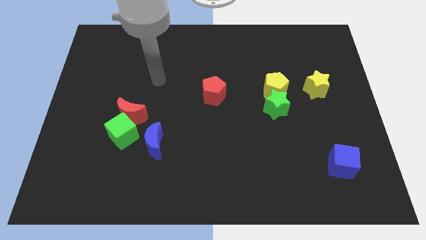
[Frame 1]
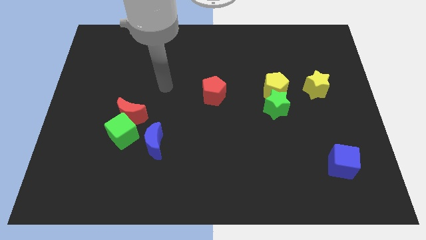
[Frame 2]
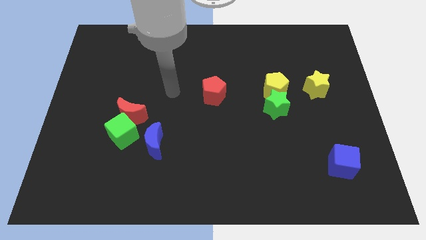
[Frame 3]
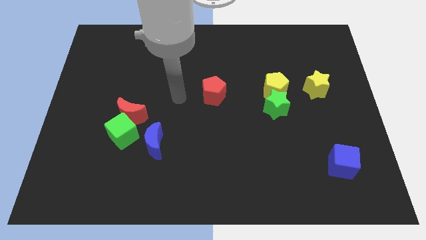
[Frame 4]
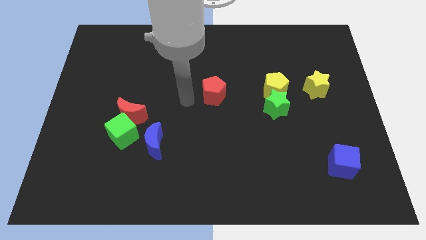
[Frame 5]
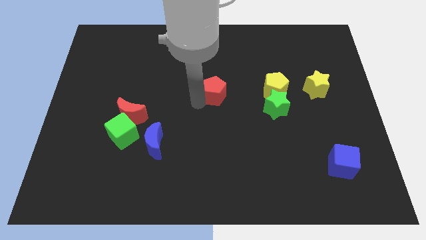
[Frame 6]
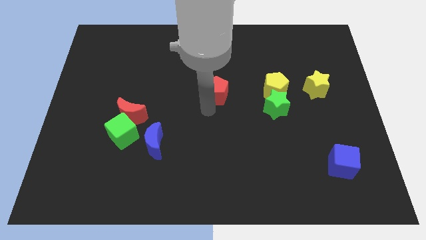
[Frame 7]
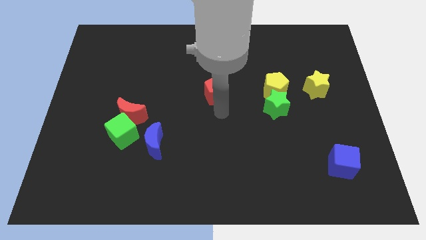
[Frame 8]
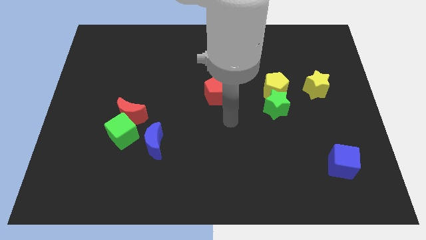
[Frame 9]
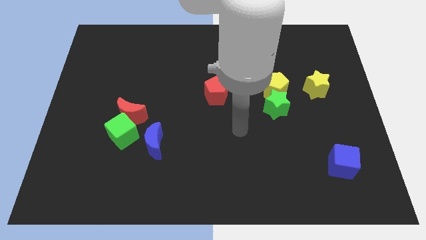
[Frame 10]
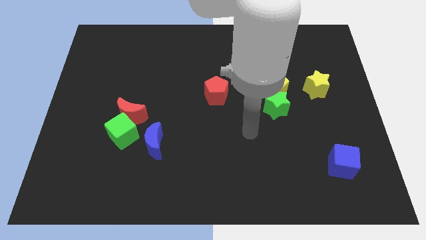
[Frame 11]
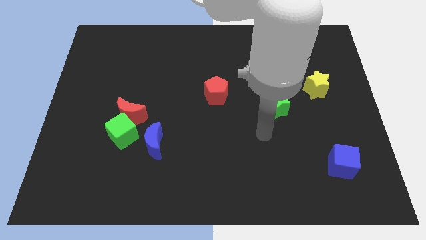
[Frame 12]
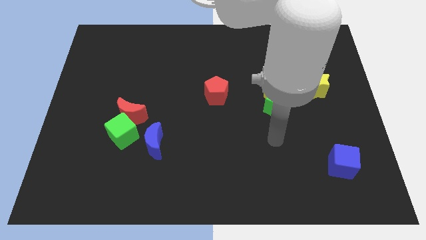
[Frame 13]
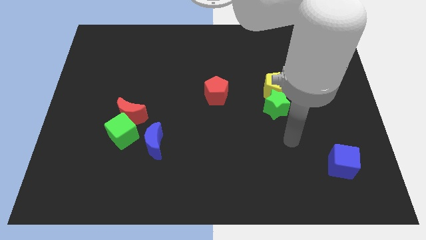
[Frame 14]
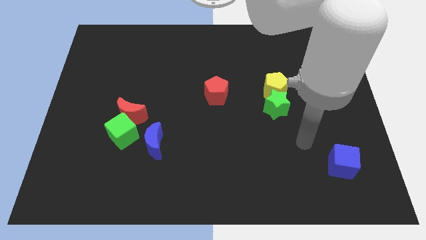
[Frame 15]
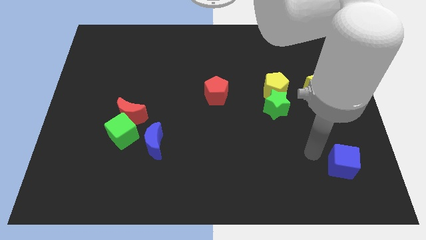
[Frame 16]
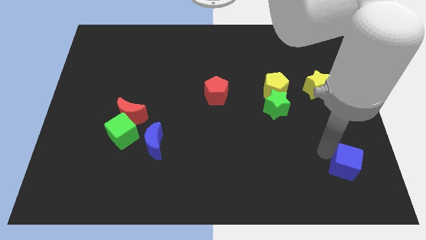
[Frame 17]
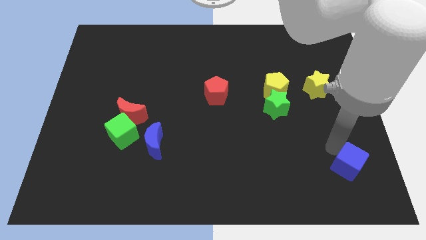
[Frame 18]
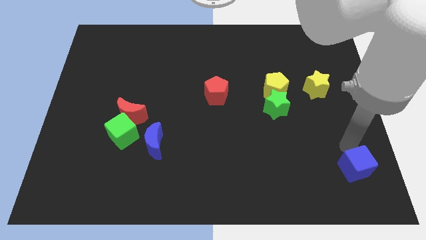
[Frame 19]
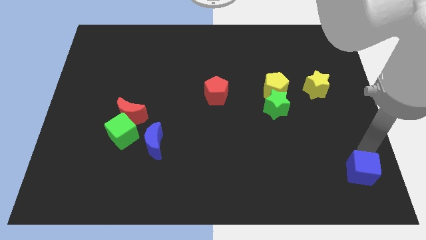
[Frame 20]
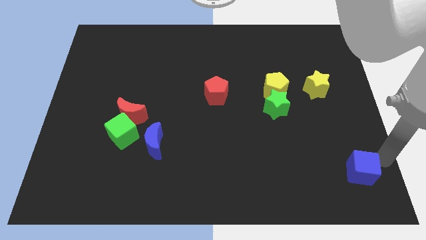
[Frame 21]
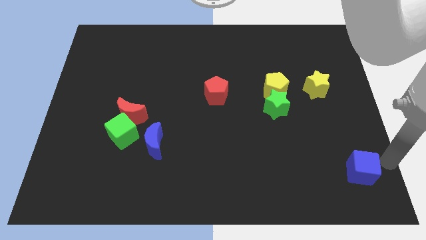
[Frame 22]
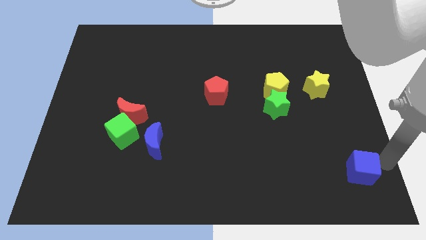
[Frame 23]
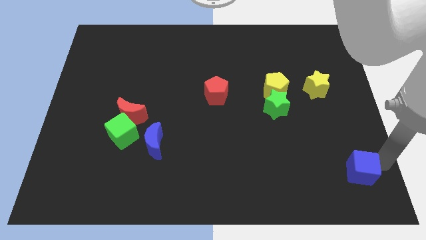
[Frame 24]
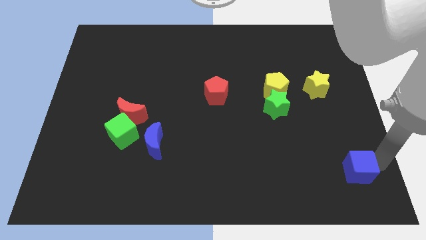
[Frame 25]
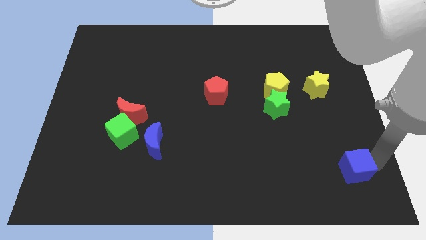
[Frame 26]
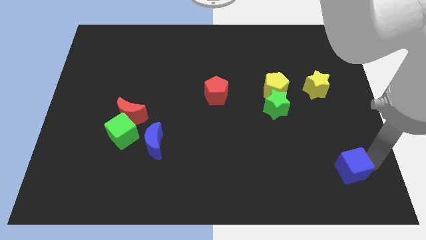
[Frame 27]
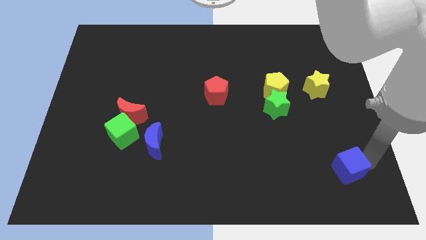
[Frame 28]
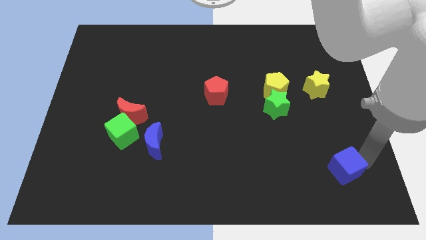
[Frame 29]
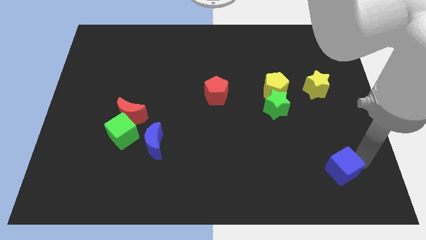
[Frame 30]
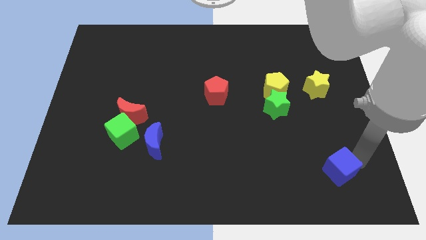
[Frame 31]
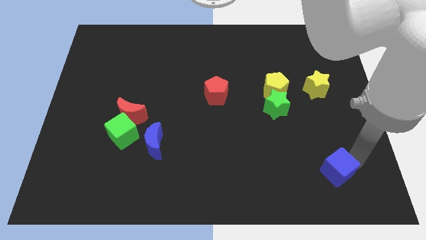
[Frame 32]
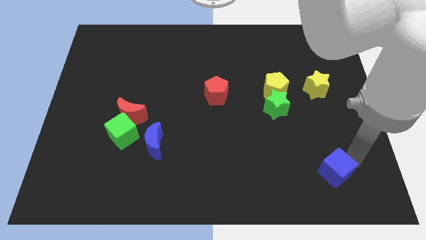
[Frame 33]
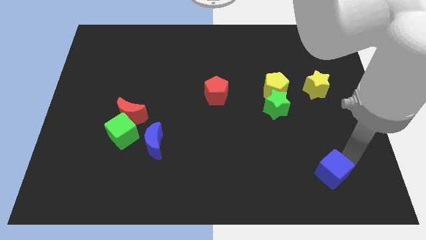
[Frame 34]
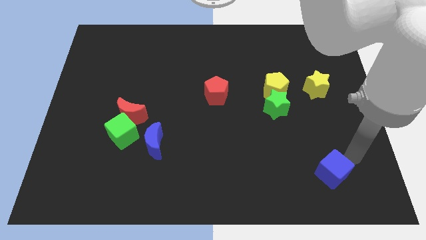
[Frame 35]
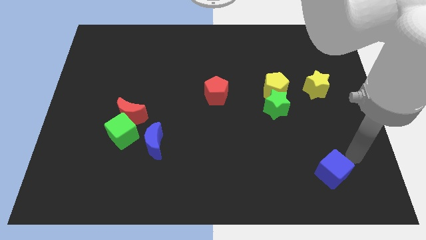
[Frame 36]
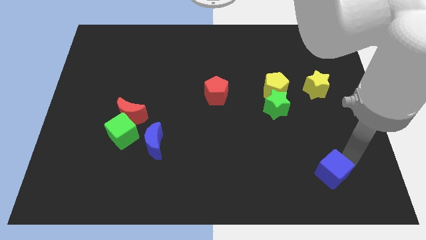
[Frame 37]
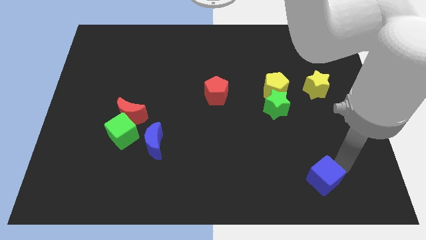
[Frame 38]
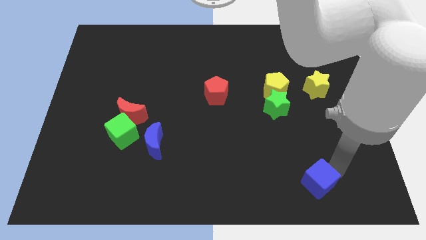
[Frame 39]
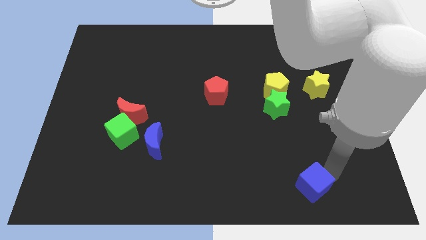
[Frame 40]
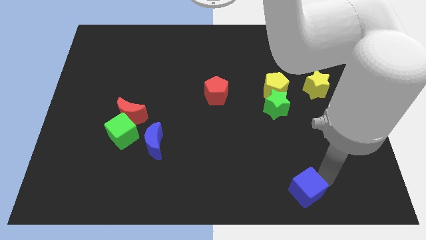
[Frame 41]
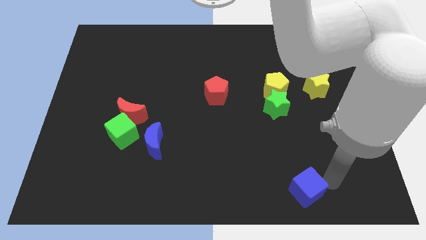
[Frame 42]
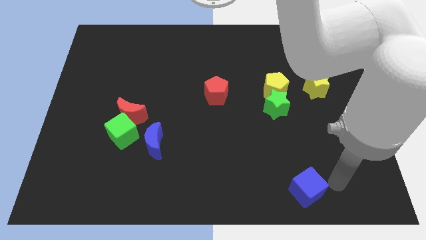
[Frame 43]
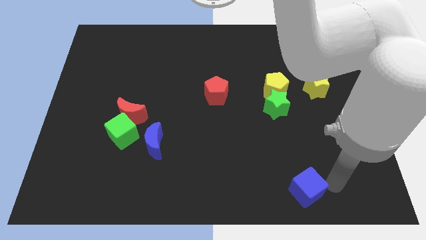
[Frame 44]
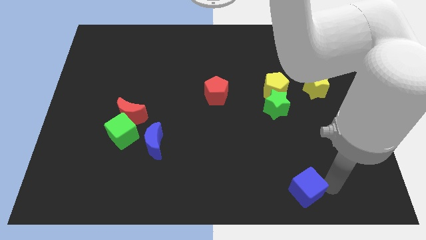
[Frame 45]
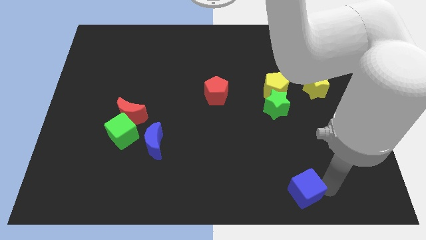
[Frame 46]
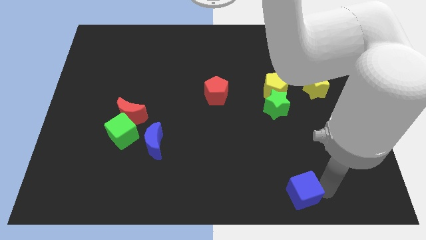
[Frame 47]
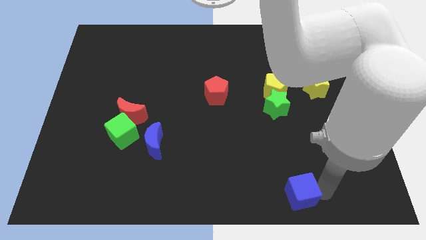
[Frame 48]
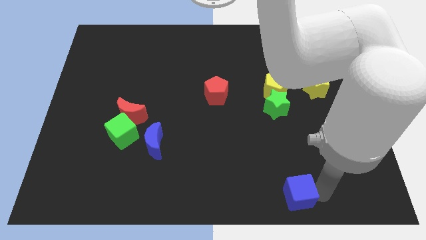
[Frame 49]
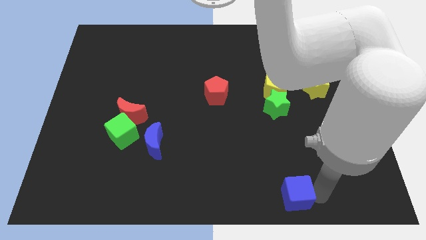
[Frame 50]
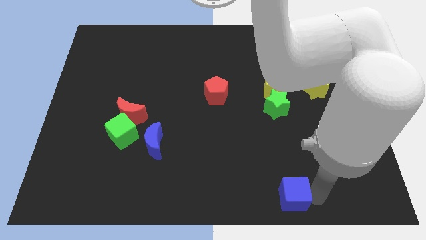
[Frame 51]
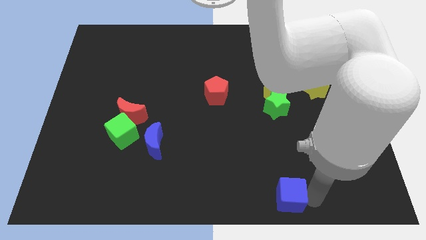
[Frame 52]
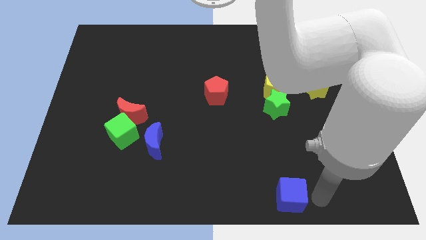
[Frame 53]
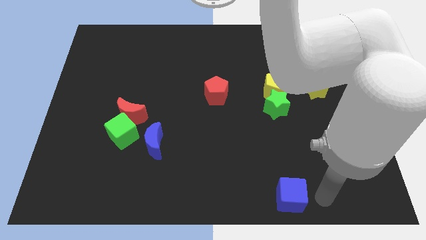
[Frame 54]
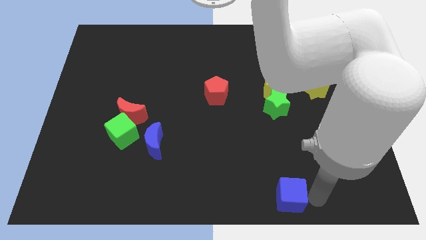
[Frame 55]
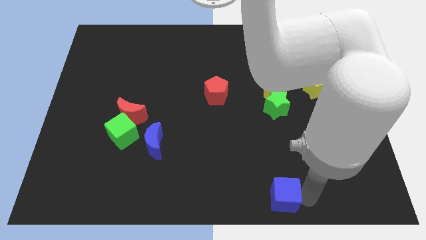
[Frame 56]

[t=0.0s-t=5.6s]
push the blue cube to the bottom side

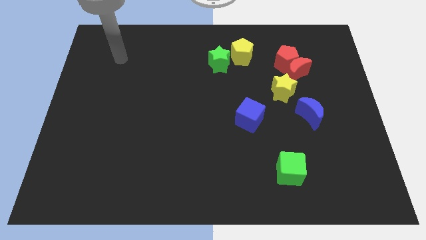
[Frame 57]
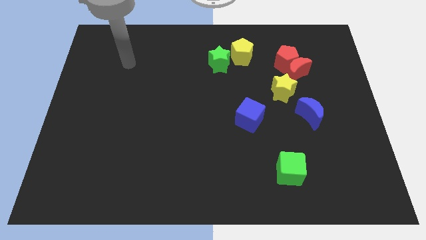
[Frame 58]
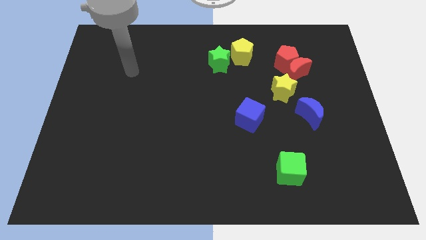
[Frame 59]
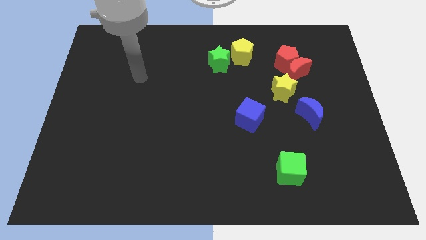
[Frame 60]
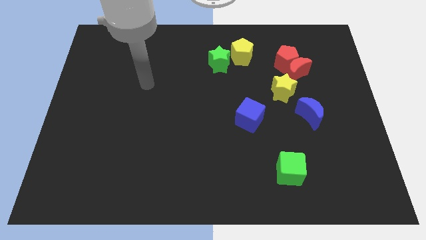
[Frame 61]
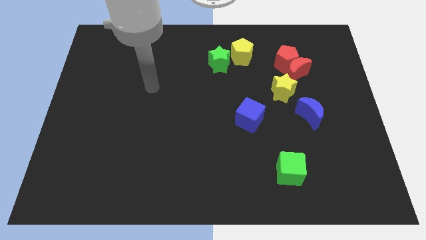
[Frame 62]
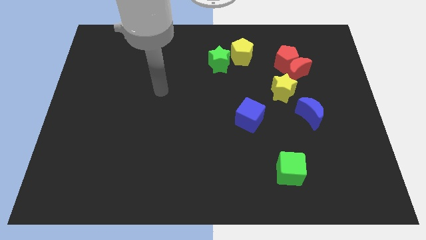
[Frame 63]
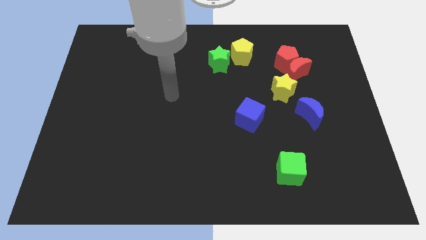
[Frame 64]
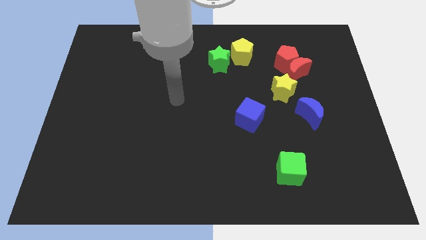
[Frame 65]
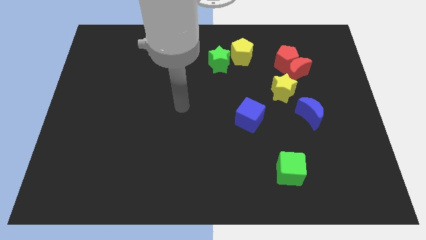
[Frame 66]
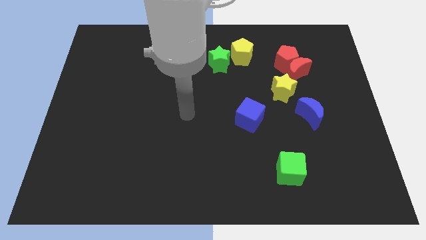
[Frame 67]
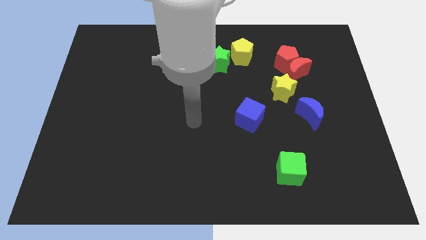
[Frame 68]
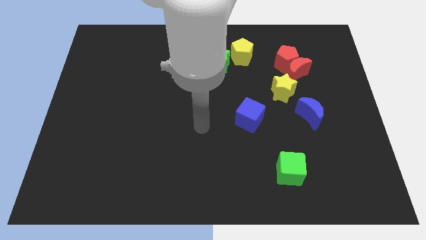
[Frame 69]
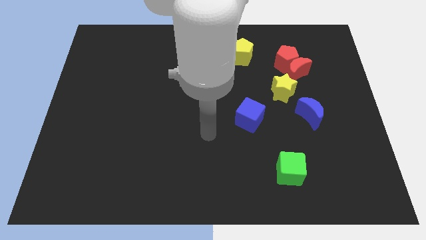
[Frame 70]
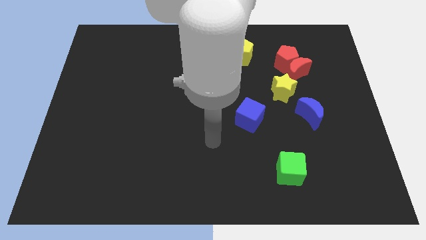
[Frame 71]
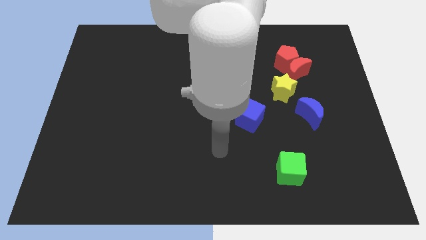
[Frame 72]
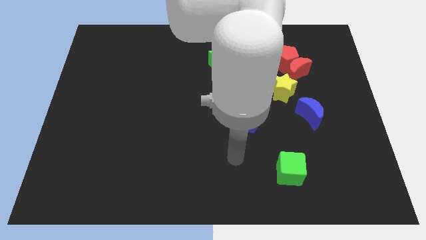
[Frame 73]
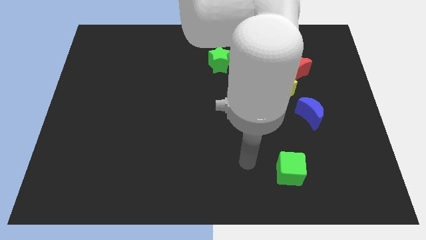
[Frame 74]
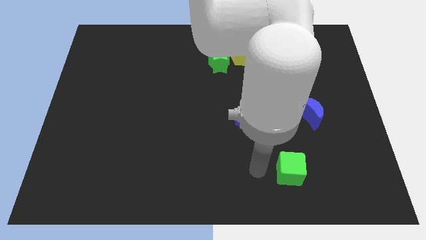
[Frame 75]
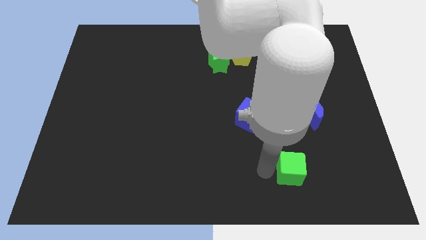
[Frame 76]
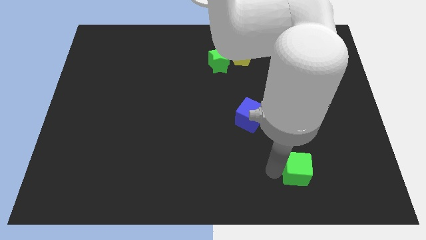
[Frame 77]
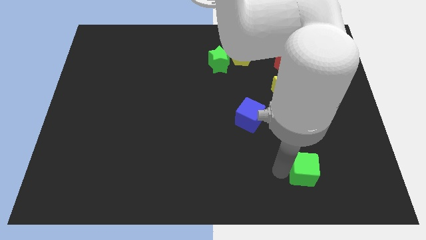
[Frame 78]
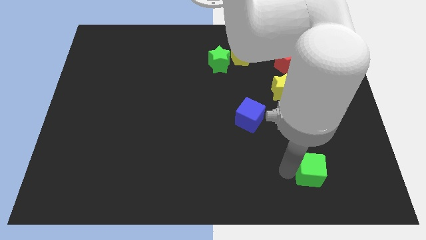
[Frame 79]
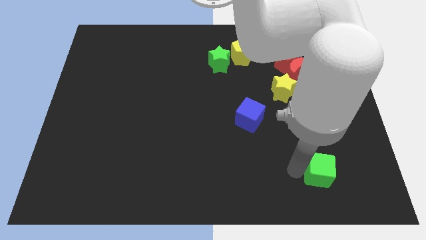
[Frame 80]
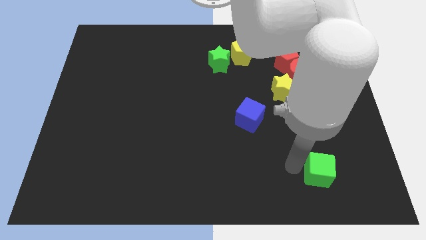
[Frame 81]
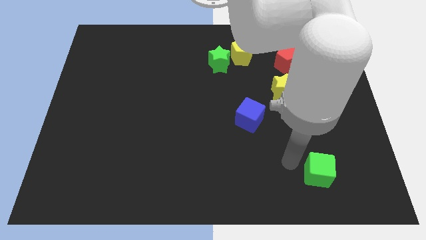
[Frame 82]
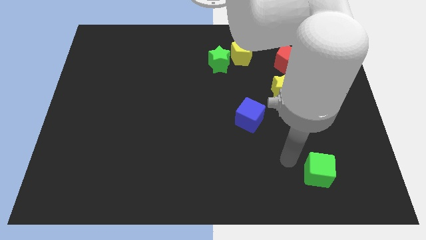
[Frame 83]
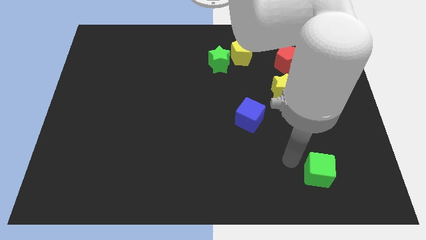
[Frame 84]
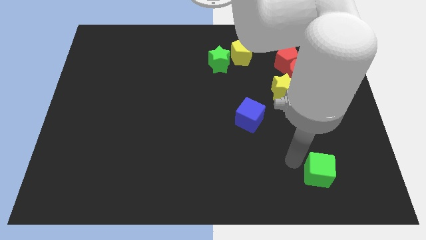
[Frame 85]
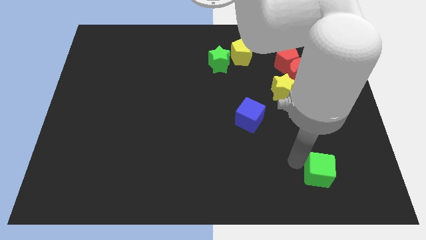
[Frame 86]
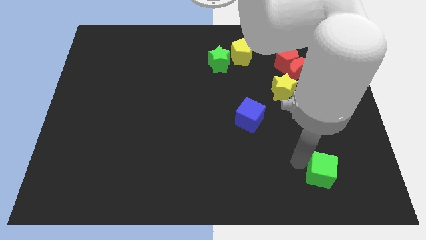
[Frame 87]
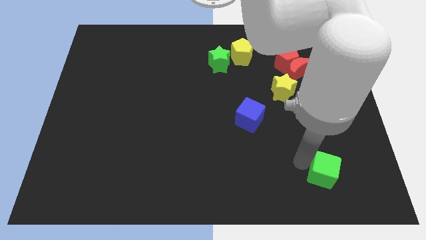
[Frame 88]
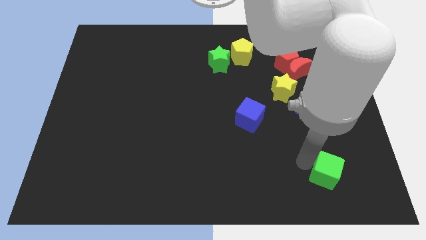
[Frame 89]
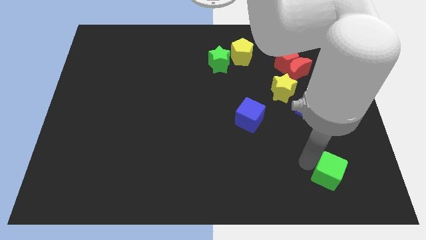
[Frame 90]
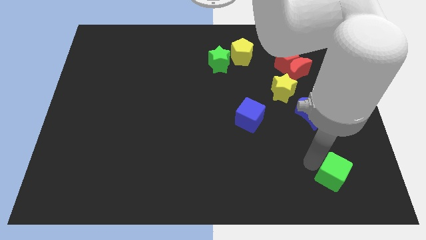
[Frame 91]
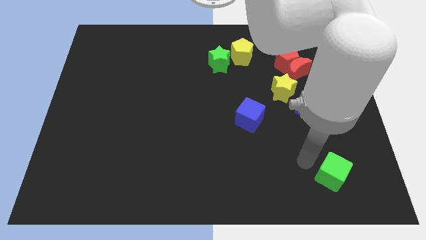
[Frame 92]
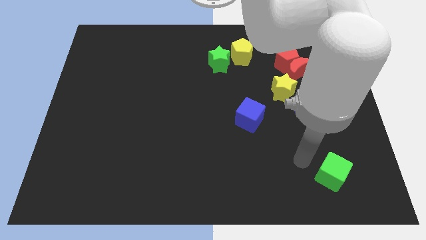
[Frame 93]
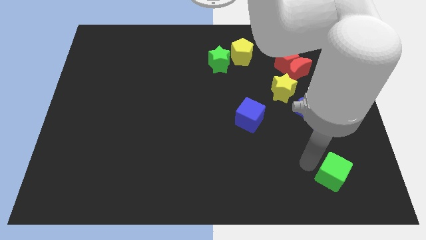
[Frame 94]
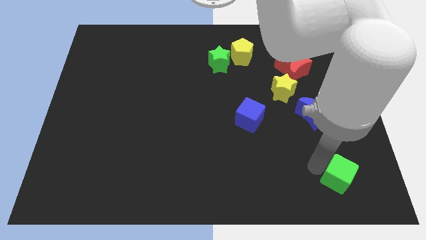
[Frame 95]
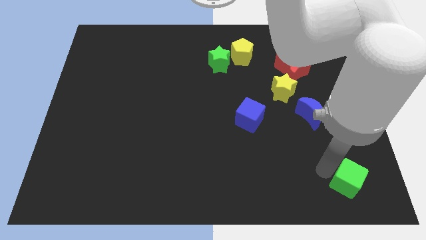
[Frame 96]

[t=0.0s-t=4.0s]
push the green cube to the lower right corner
